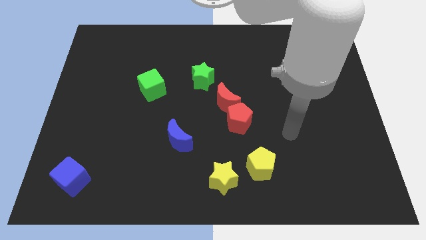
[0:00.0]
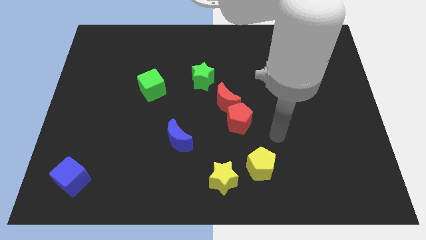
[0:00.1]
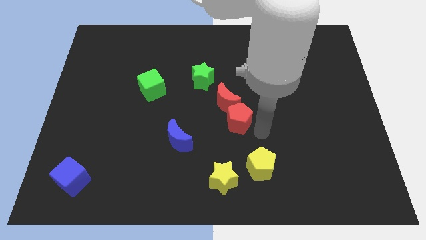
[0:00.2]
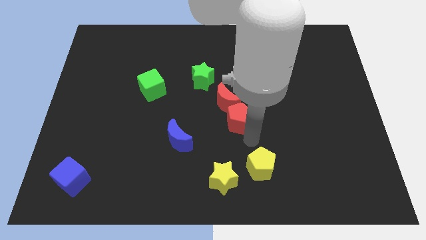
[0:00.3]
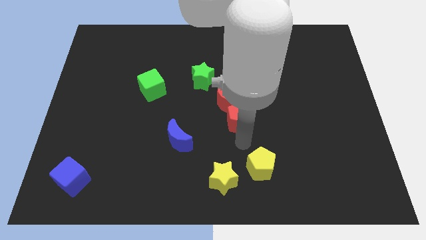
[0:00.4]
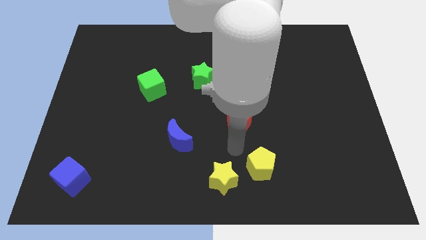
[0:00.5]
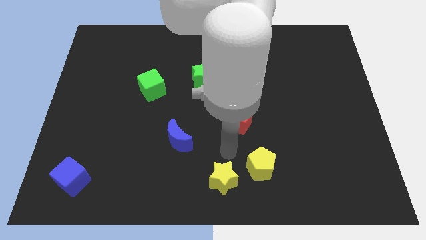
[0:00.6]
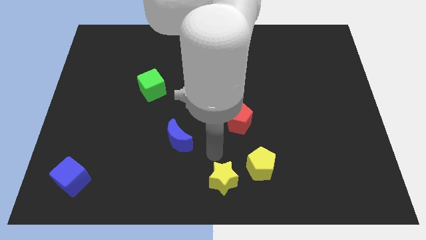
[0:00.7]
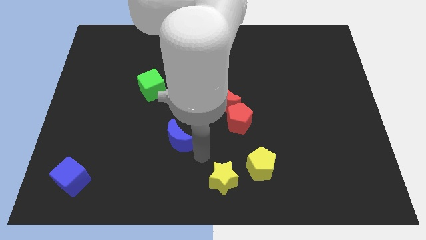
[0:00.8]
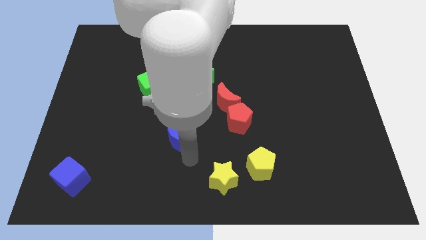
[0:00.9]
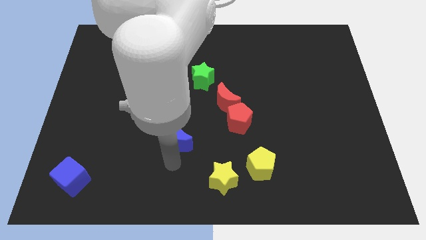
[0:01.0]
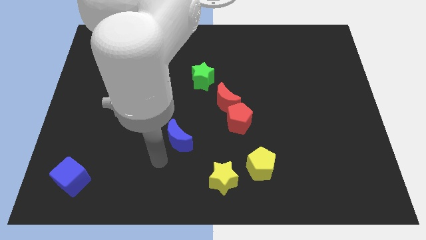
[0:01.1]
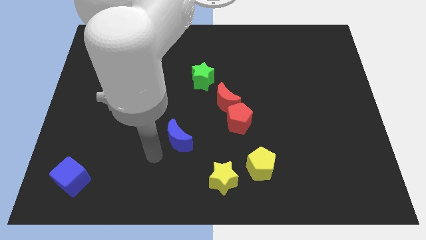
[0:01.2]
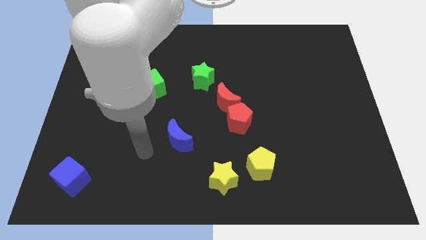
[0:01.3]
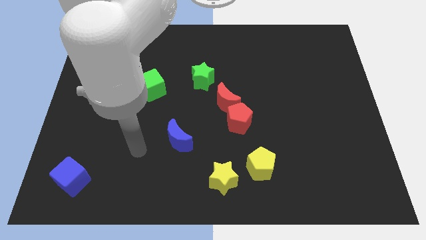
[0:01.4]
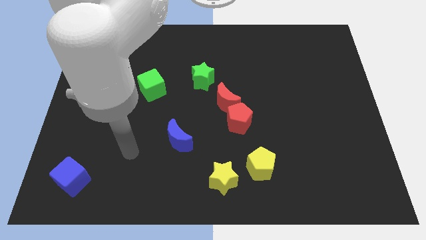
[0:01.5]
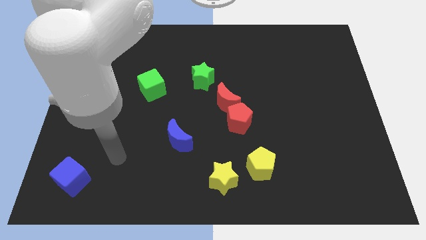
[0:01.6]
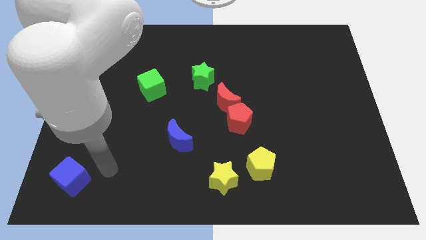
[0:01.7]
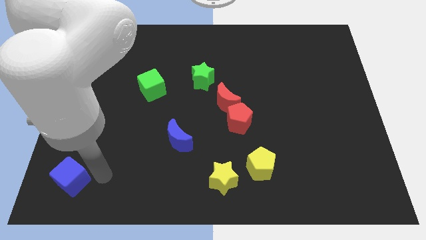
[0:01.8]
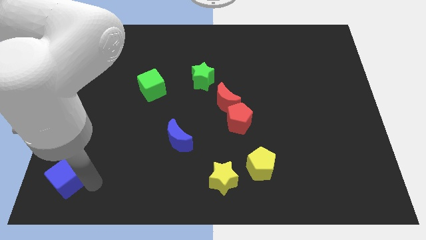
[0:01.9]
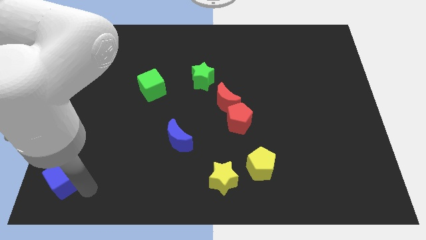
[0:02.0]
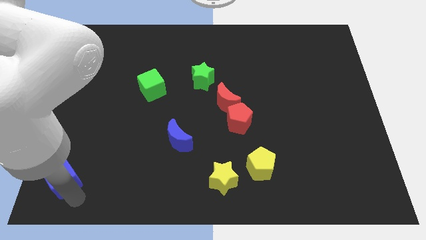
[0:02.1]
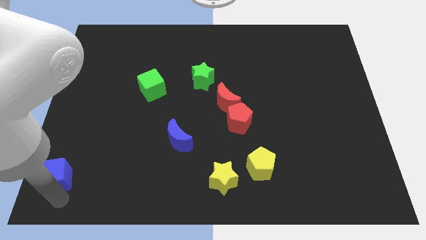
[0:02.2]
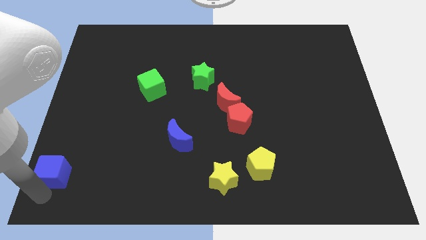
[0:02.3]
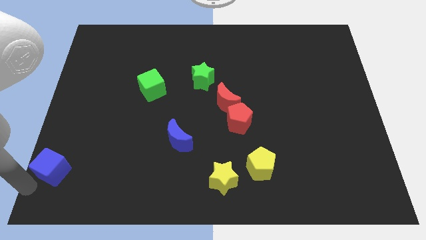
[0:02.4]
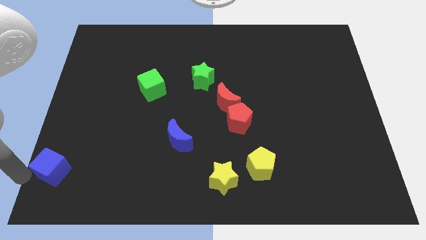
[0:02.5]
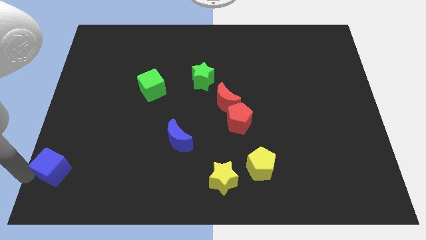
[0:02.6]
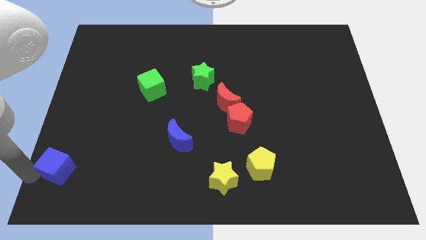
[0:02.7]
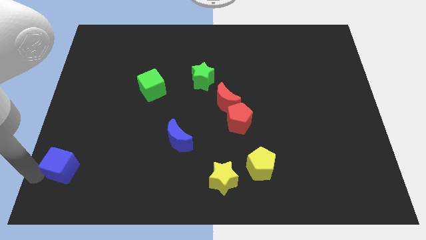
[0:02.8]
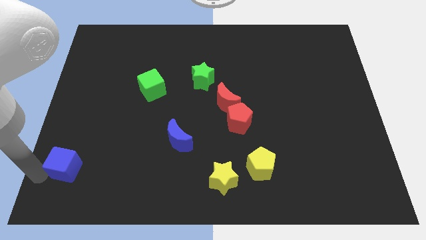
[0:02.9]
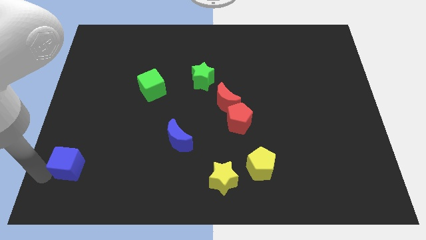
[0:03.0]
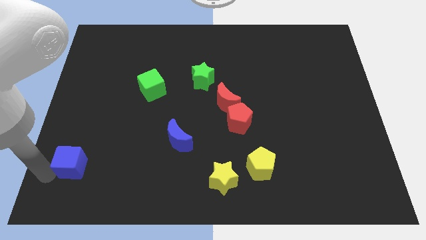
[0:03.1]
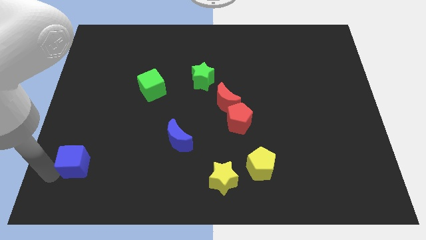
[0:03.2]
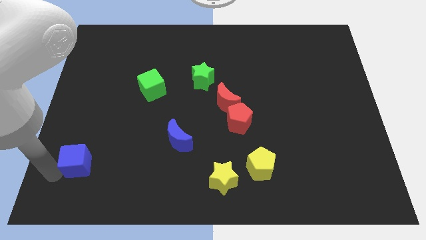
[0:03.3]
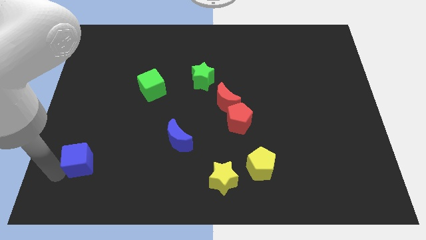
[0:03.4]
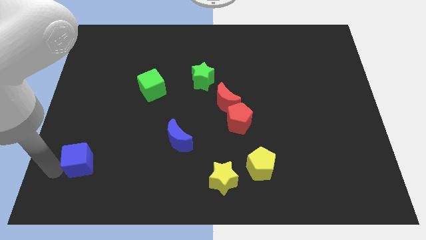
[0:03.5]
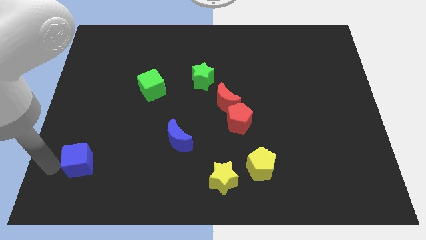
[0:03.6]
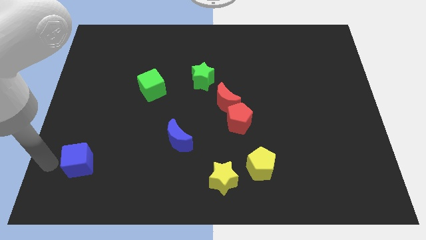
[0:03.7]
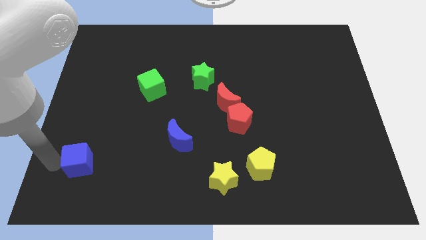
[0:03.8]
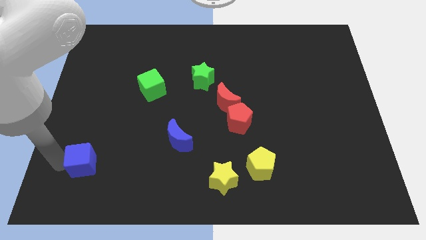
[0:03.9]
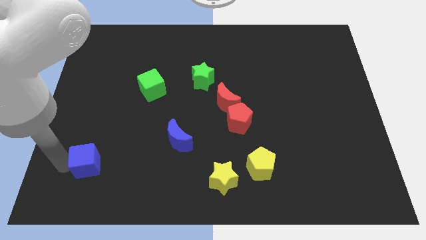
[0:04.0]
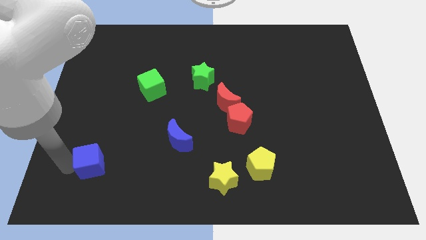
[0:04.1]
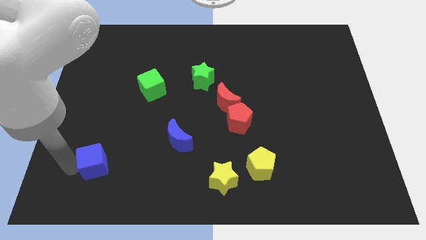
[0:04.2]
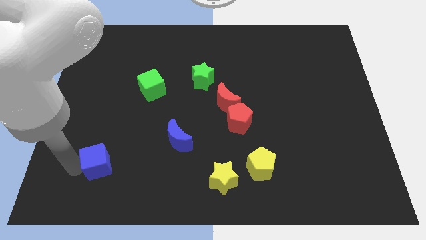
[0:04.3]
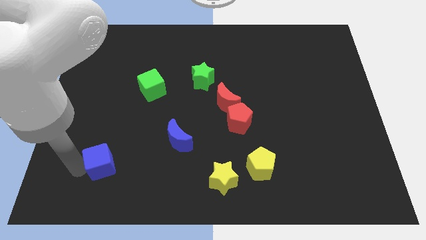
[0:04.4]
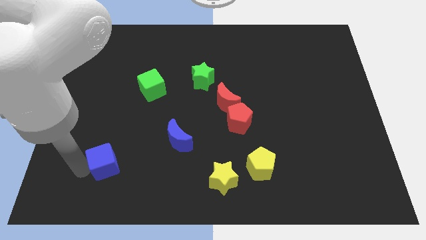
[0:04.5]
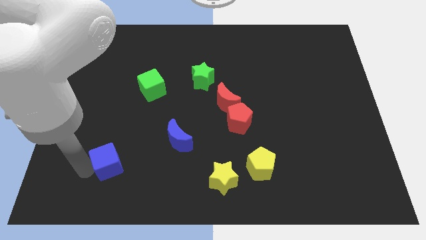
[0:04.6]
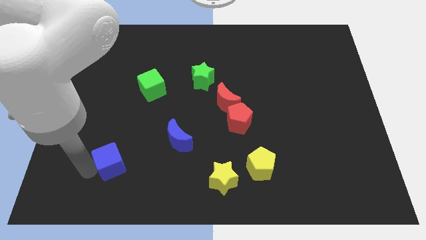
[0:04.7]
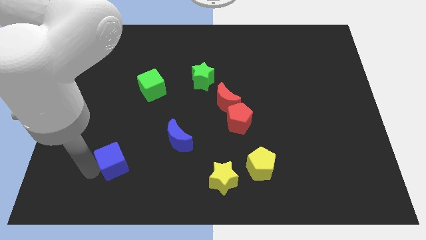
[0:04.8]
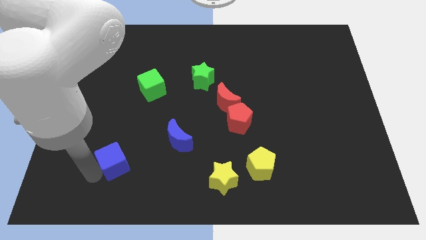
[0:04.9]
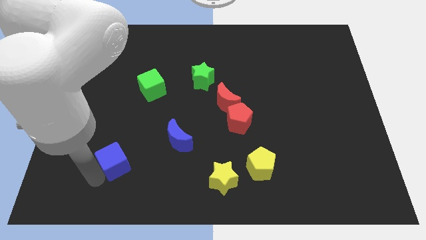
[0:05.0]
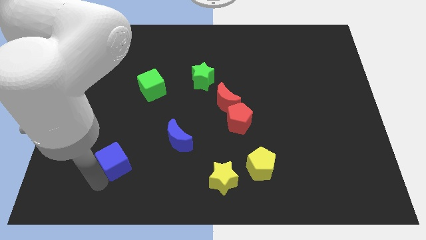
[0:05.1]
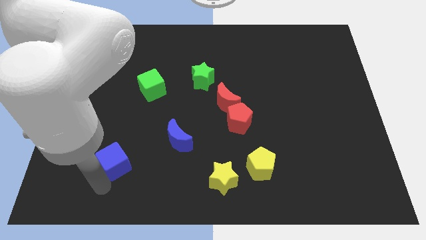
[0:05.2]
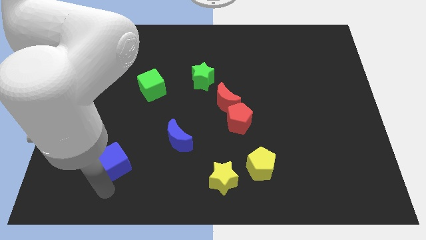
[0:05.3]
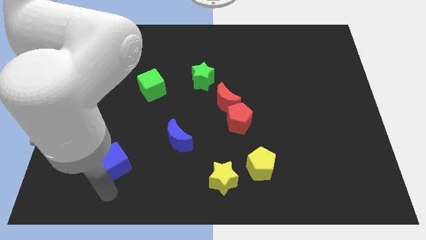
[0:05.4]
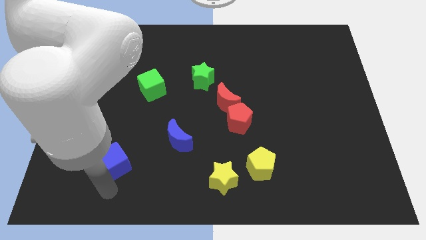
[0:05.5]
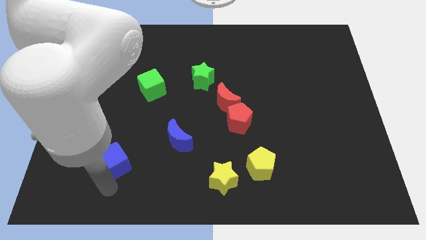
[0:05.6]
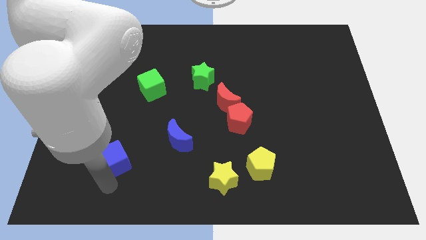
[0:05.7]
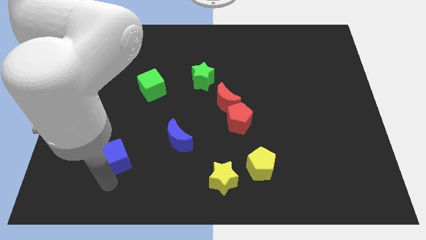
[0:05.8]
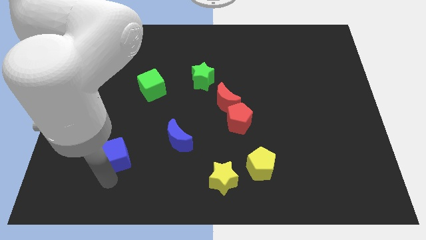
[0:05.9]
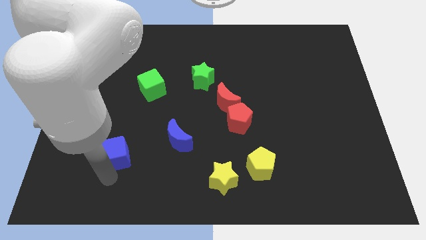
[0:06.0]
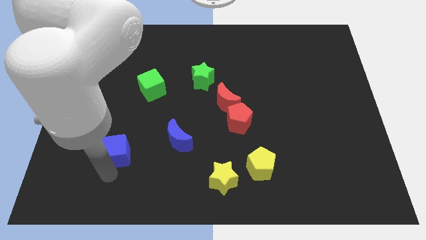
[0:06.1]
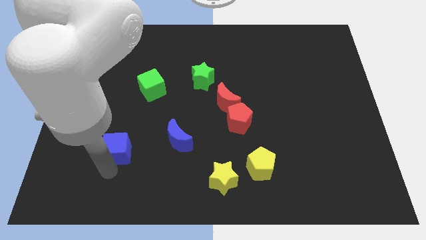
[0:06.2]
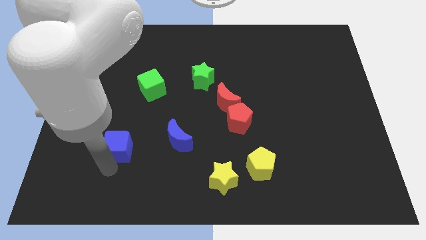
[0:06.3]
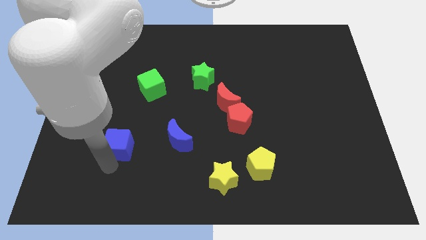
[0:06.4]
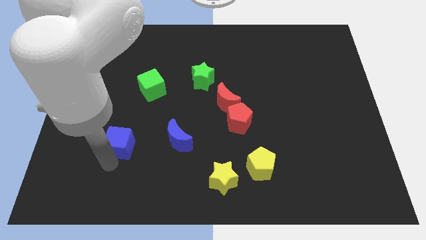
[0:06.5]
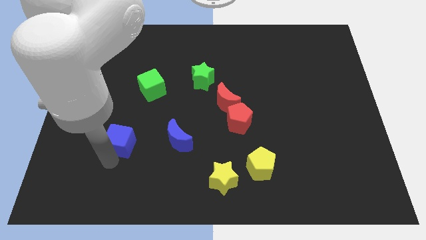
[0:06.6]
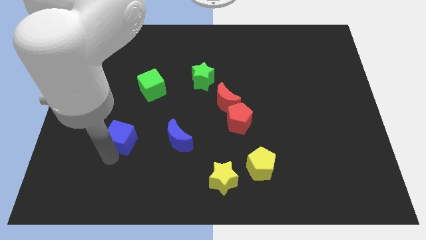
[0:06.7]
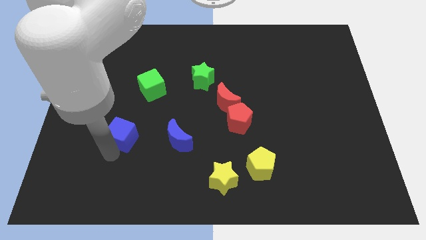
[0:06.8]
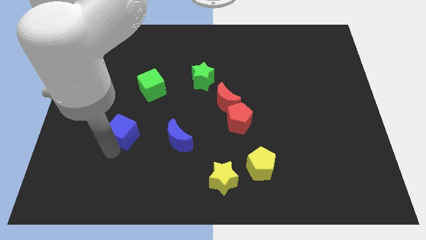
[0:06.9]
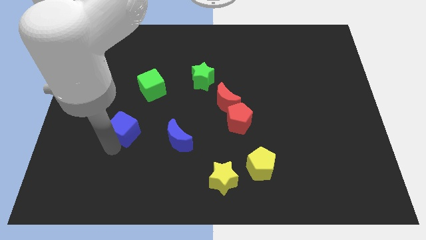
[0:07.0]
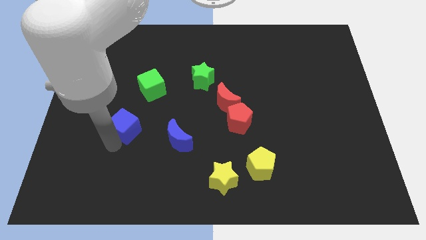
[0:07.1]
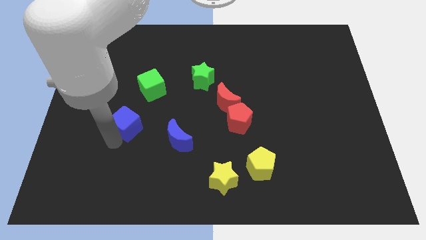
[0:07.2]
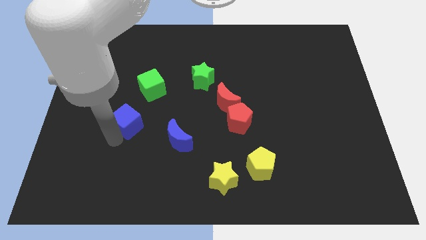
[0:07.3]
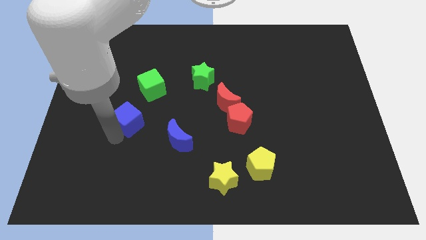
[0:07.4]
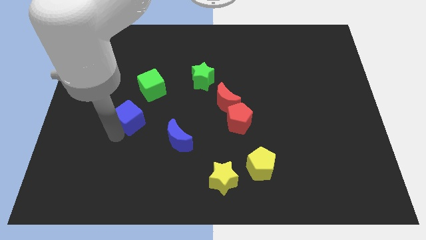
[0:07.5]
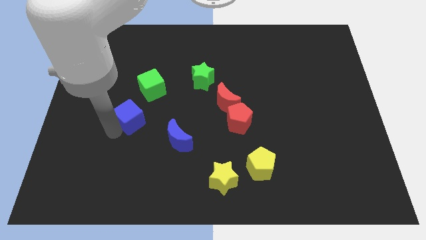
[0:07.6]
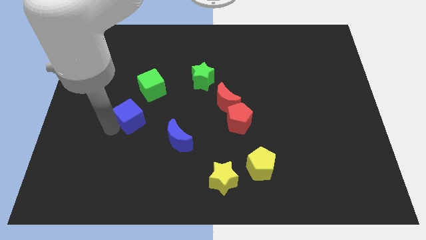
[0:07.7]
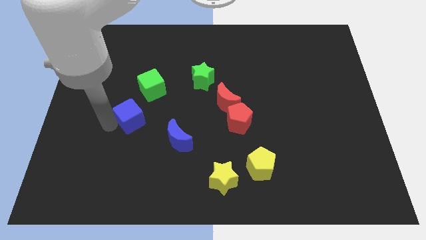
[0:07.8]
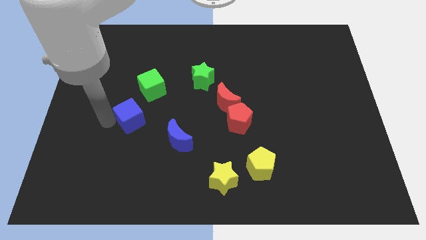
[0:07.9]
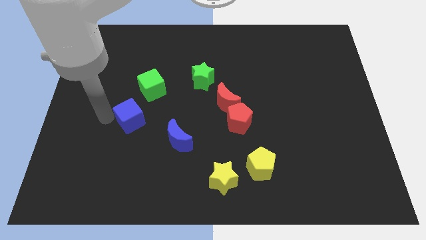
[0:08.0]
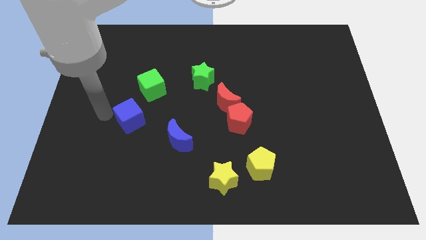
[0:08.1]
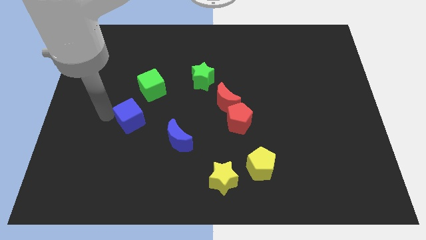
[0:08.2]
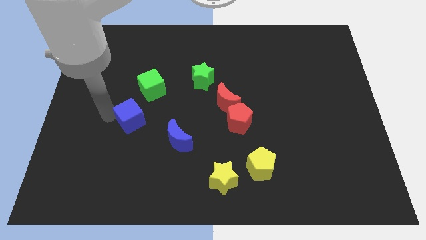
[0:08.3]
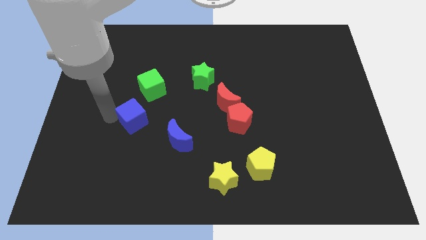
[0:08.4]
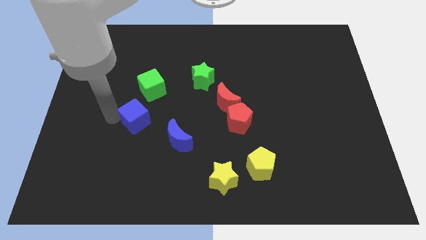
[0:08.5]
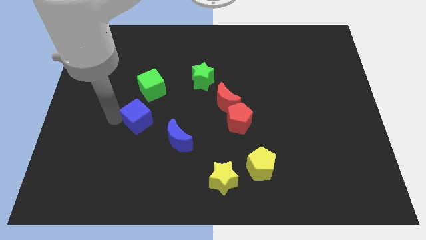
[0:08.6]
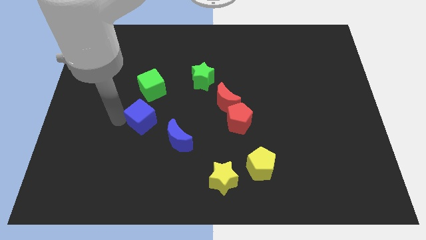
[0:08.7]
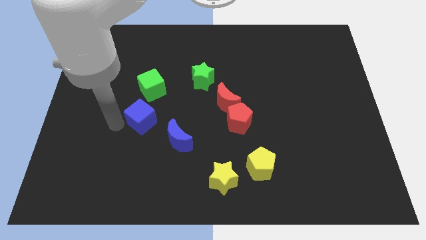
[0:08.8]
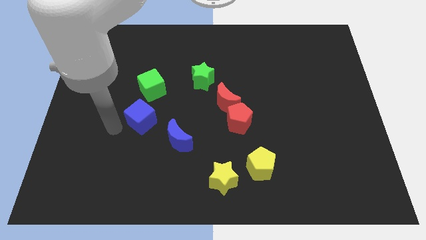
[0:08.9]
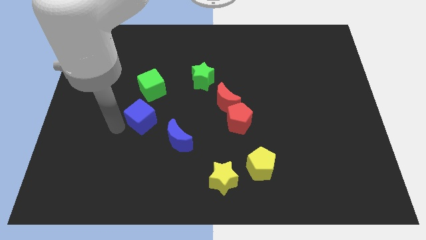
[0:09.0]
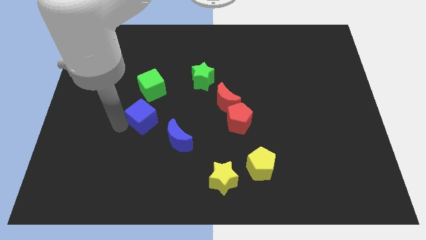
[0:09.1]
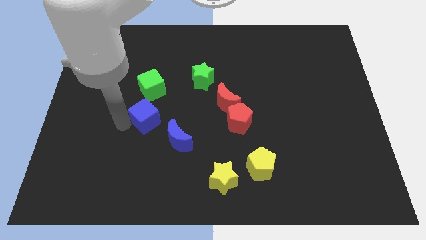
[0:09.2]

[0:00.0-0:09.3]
move the blue cube up and then right
